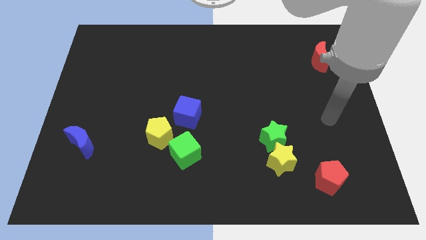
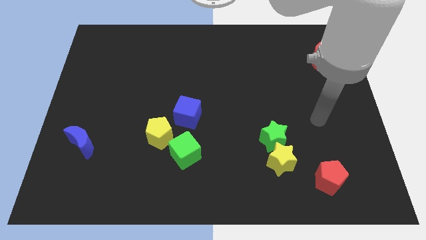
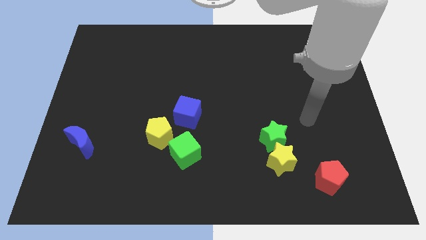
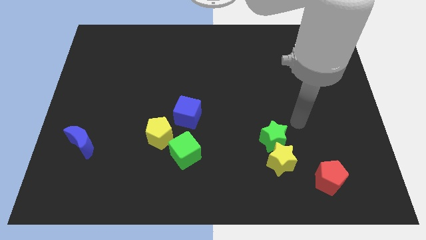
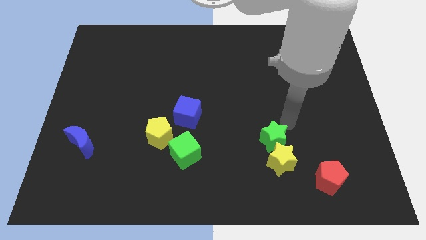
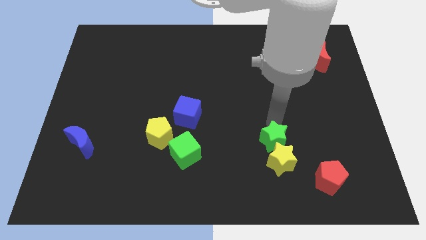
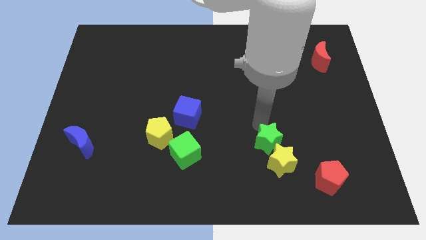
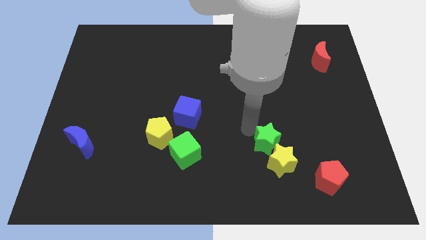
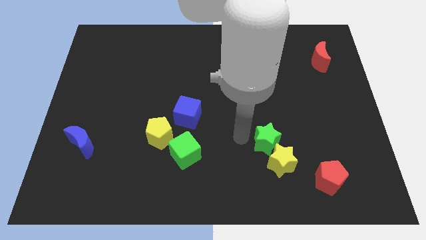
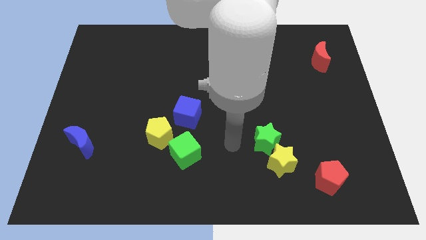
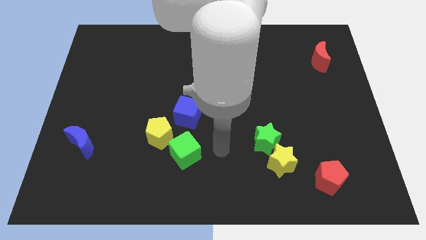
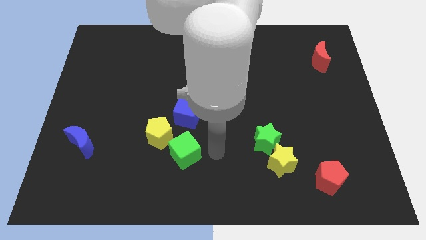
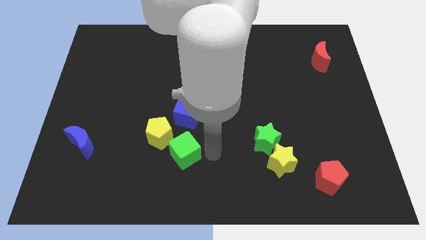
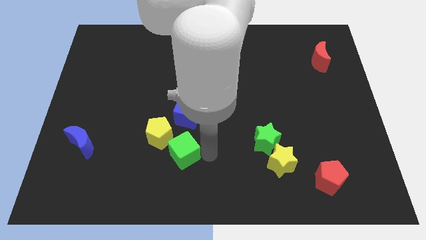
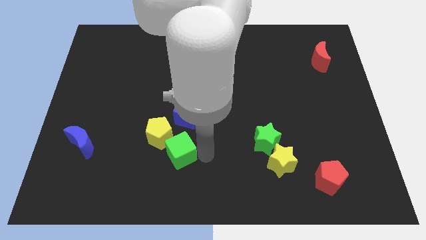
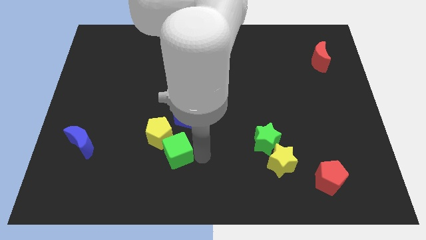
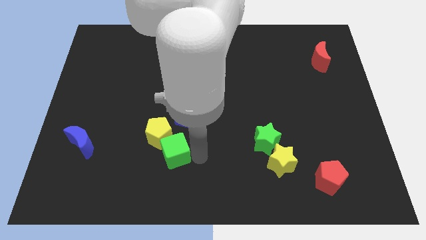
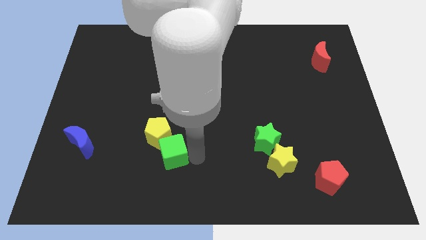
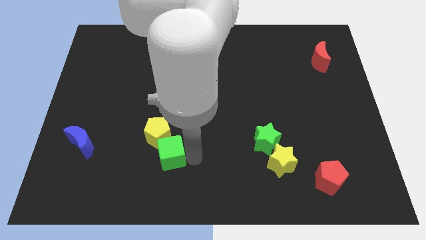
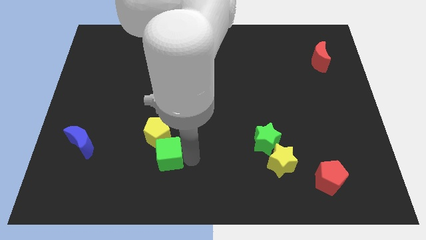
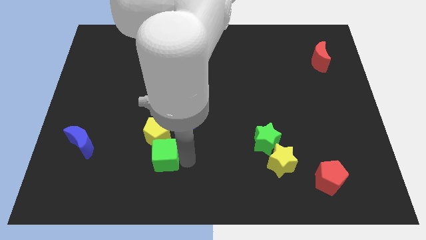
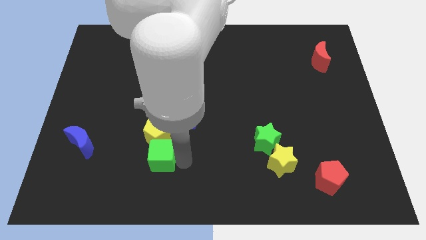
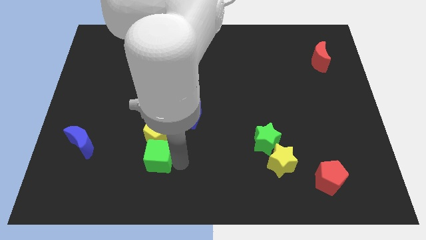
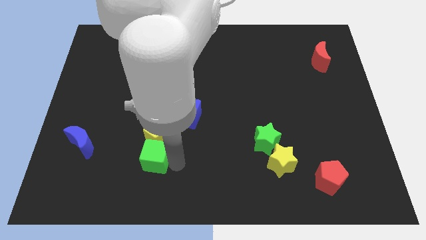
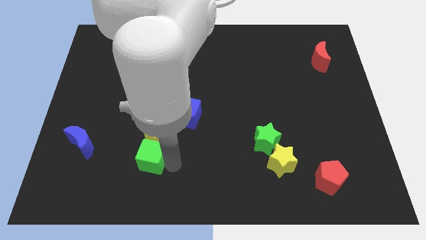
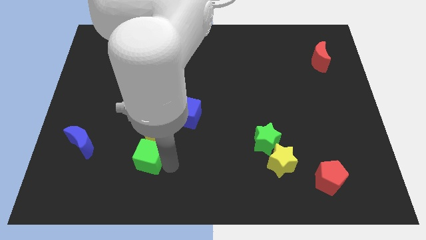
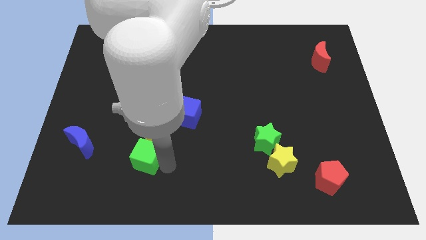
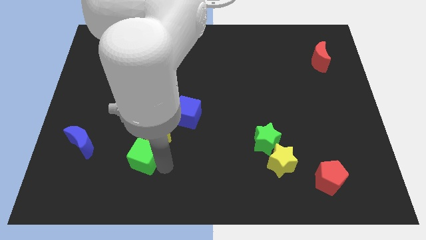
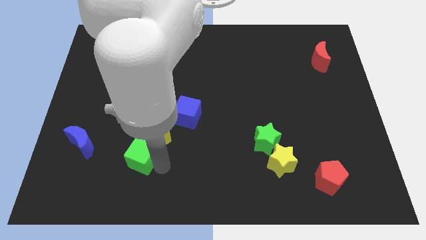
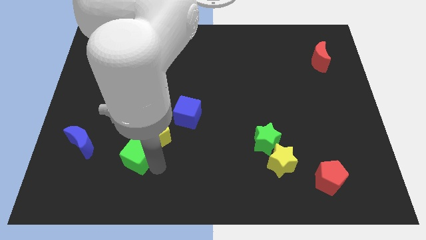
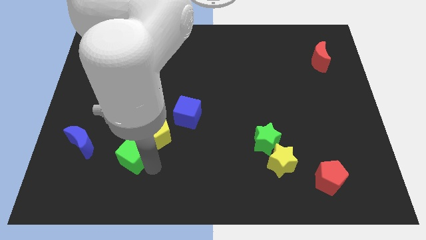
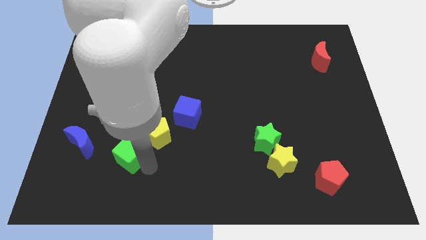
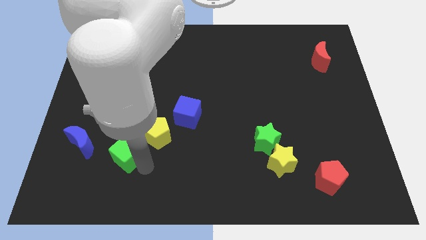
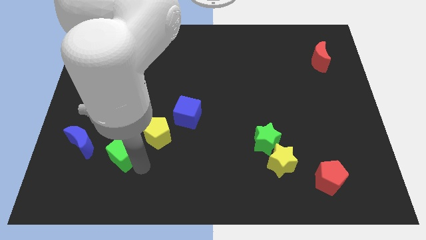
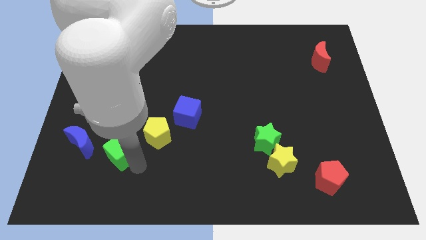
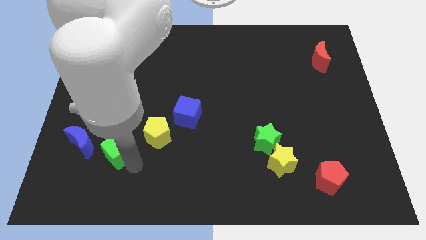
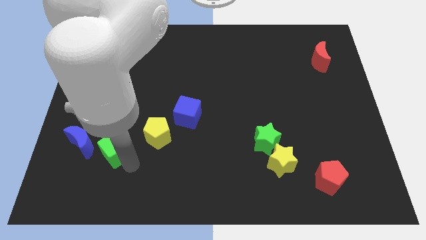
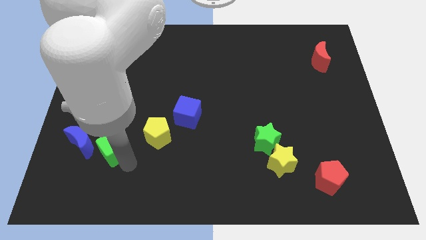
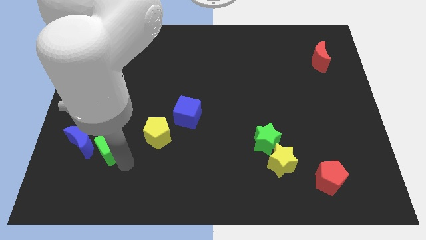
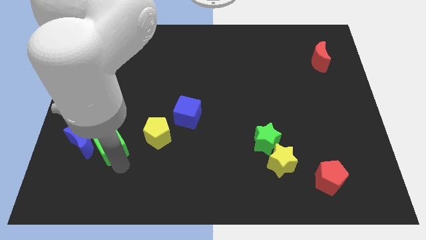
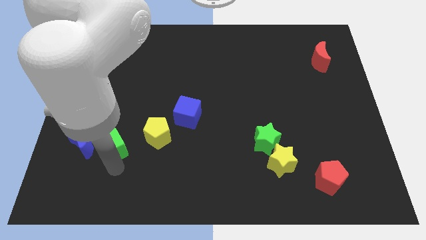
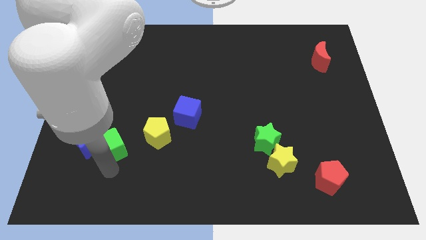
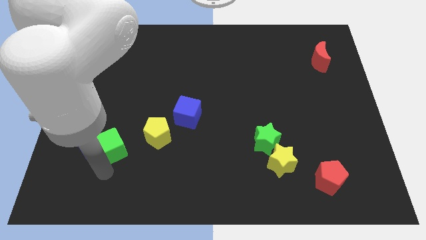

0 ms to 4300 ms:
push the green cube upwards and left slightly

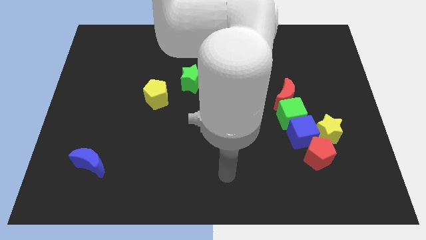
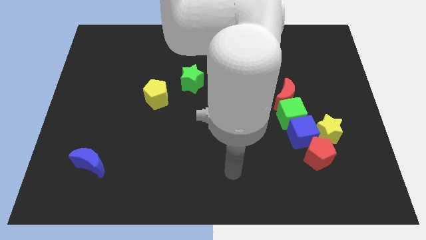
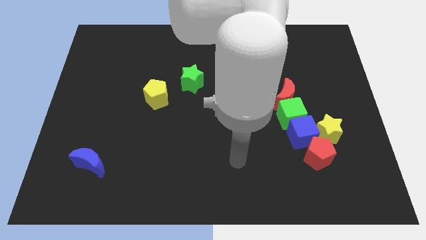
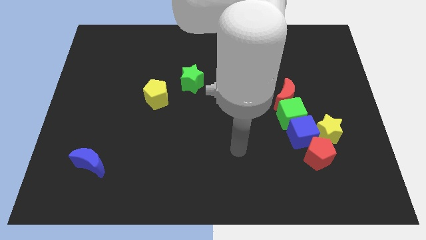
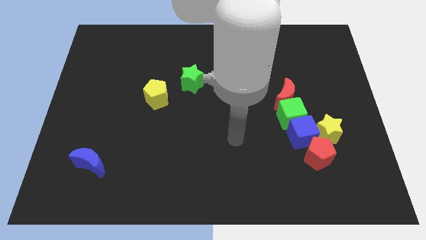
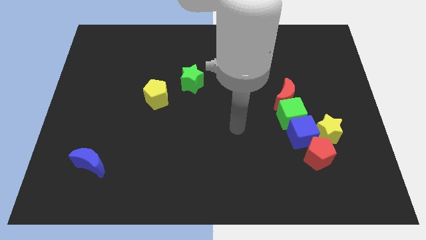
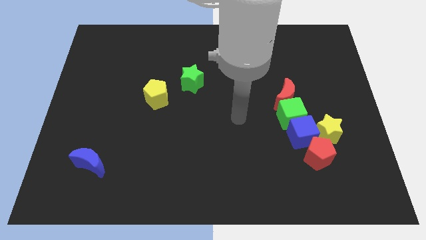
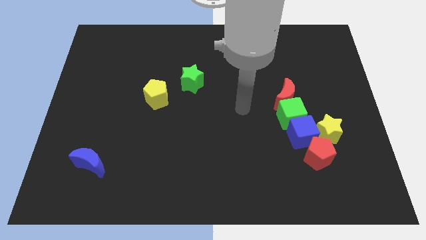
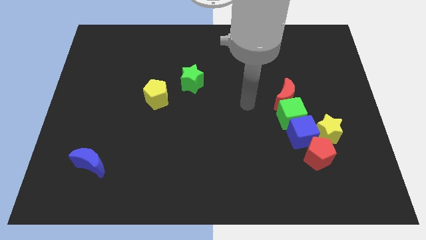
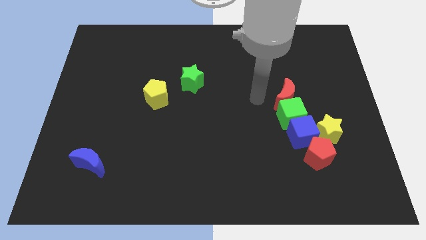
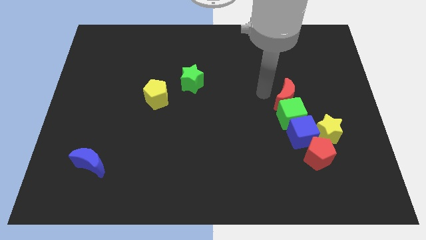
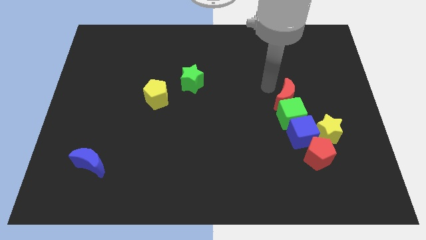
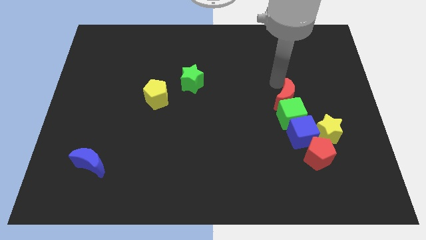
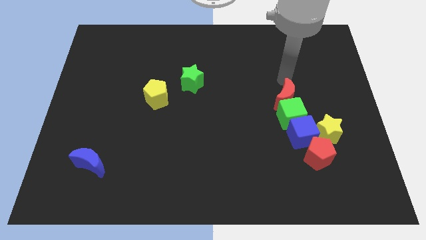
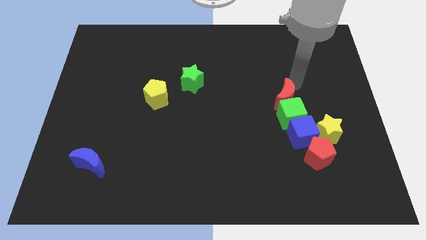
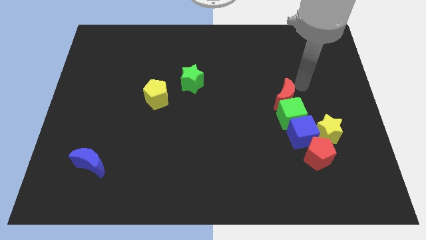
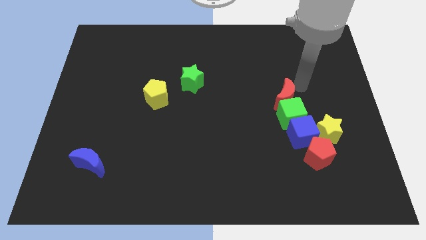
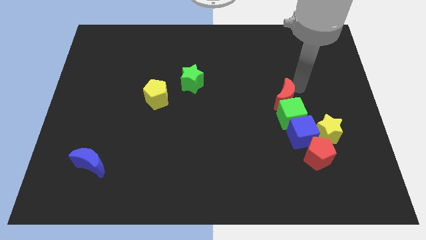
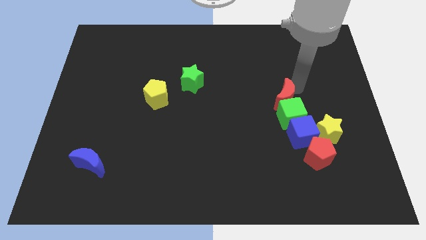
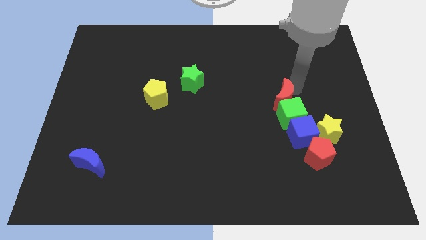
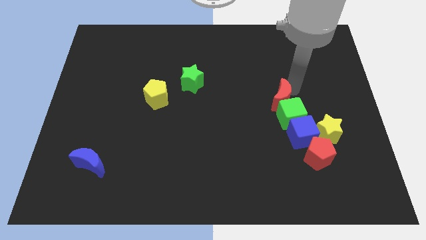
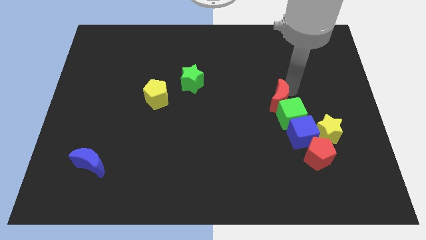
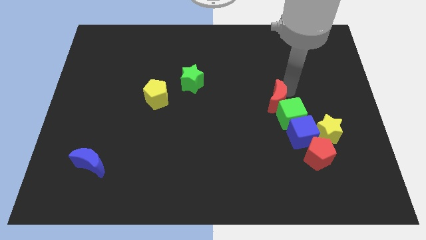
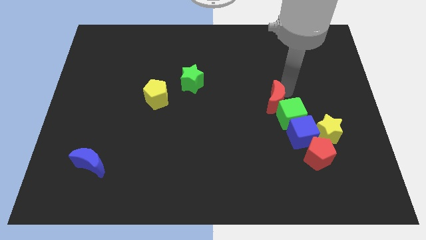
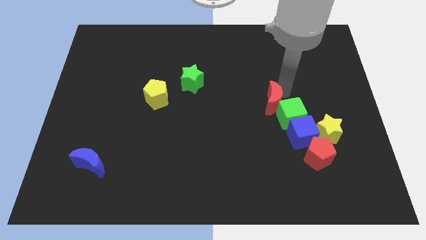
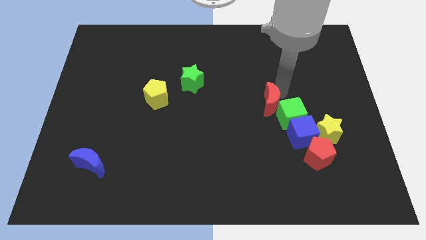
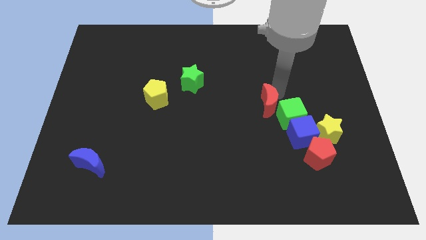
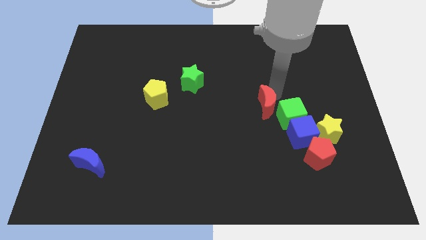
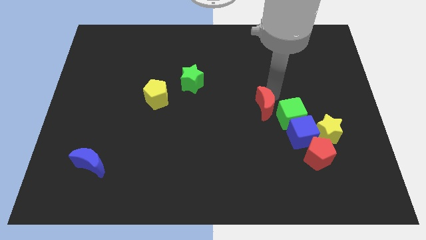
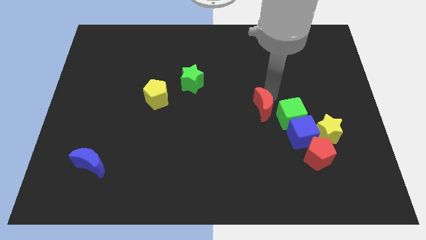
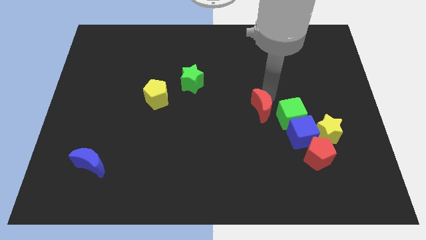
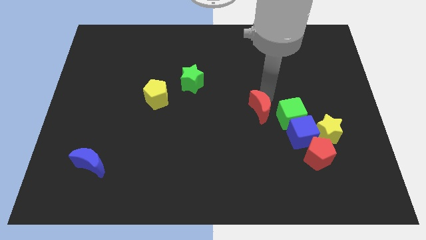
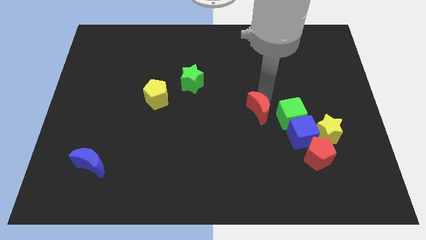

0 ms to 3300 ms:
move the red moon slightly diagonally downwards and to the left

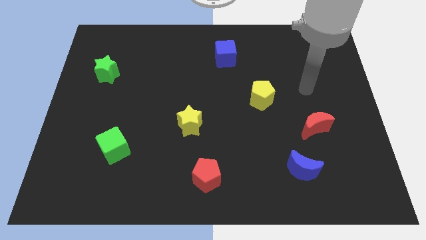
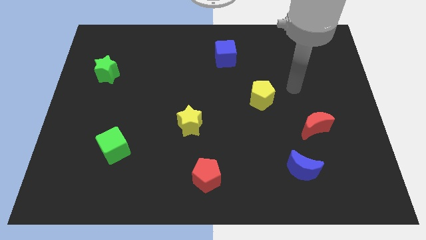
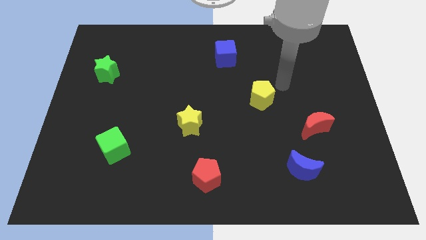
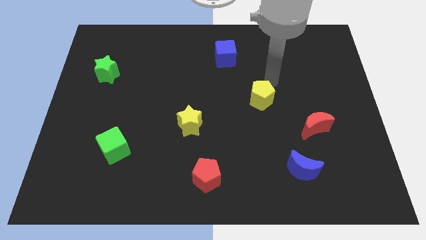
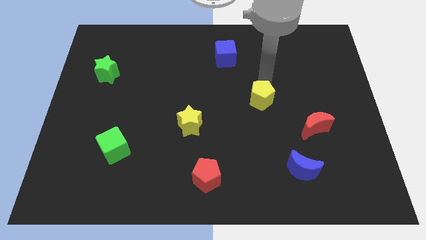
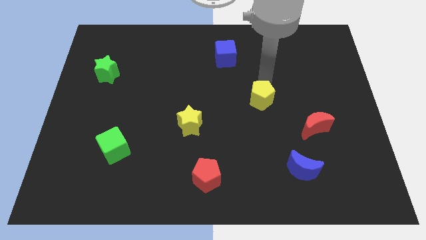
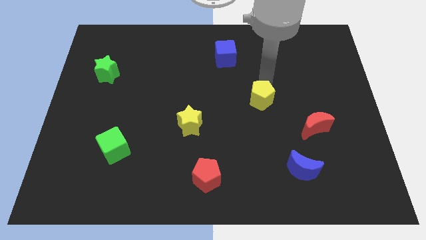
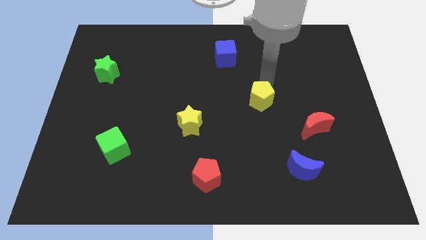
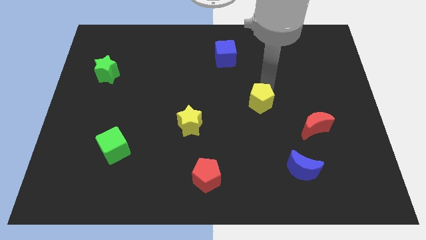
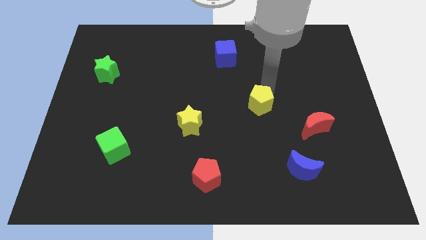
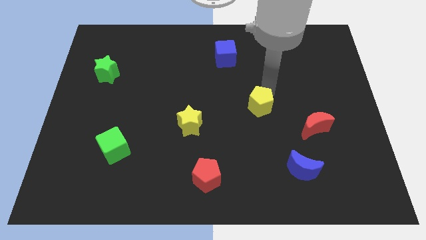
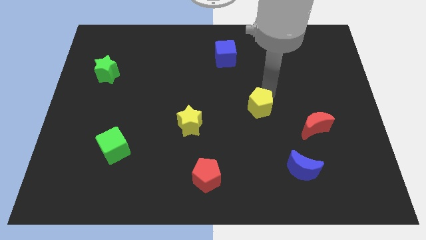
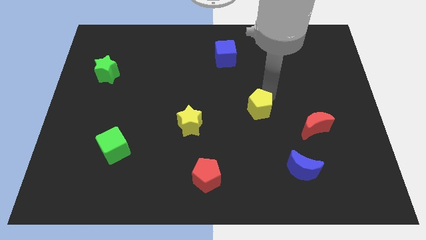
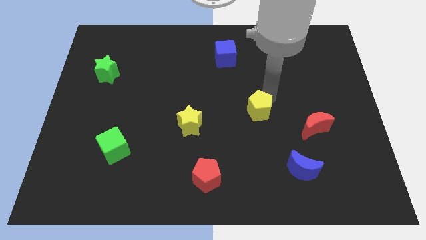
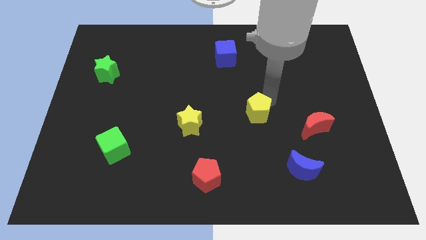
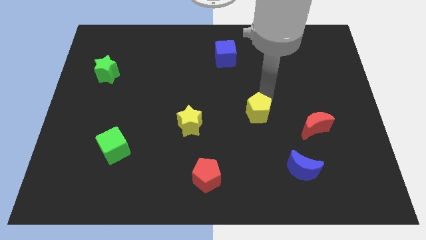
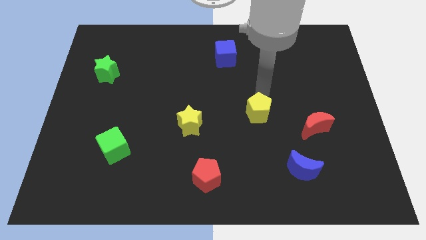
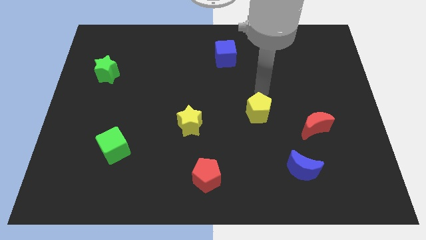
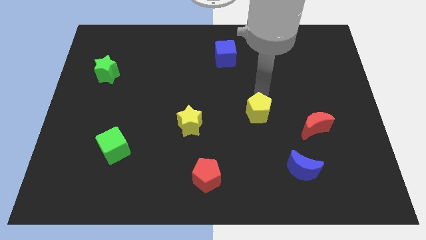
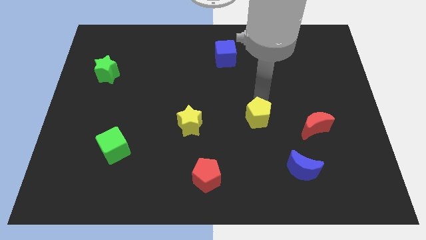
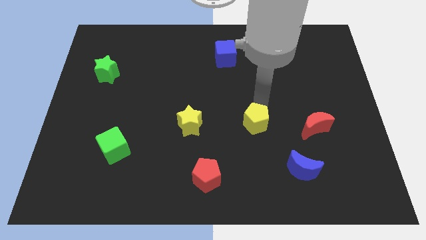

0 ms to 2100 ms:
slide the yellow pentagon slightly downwards
